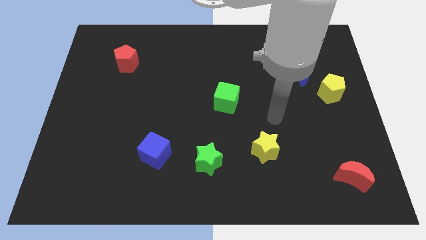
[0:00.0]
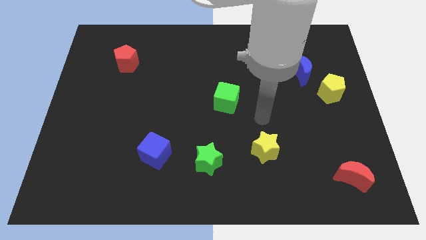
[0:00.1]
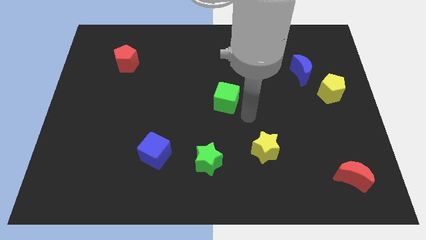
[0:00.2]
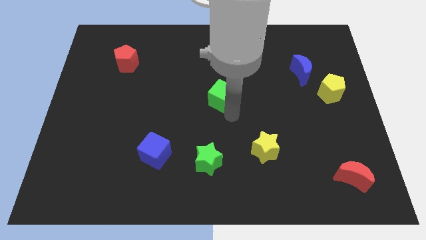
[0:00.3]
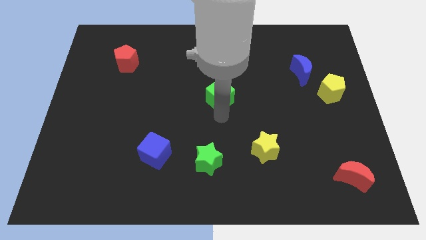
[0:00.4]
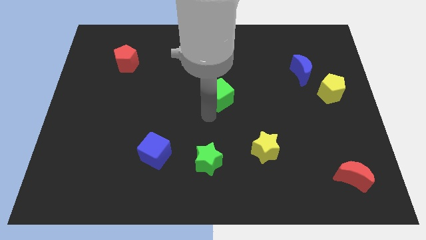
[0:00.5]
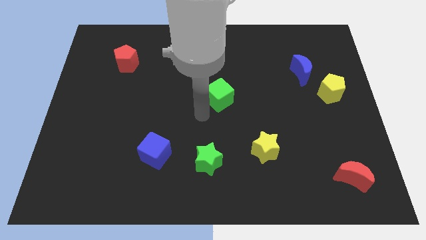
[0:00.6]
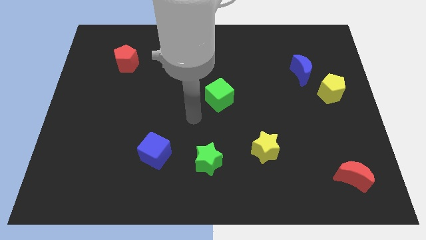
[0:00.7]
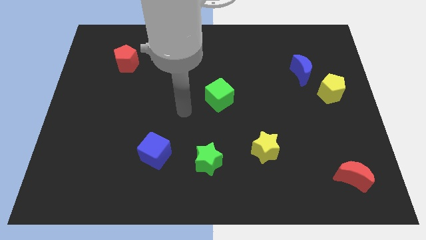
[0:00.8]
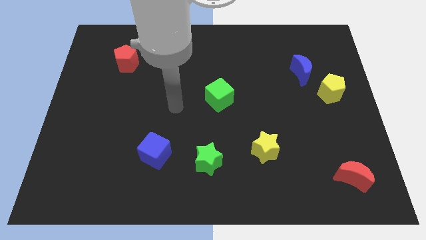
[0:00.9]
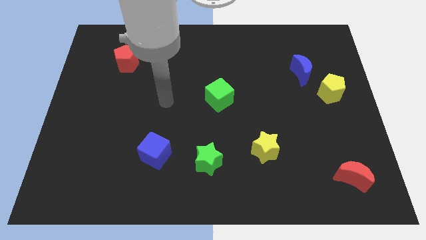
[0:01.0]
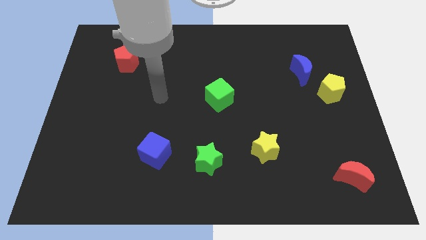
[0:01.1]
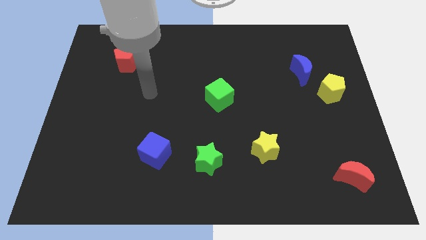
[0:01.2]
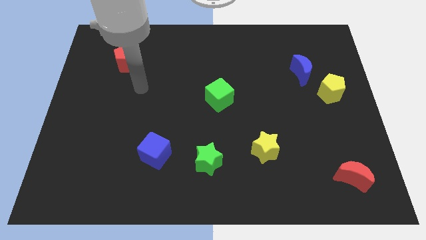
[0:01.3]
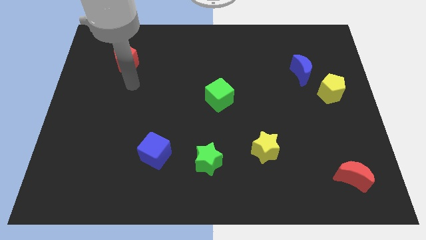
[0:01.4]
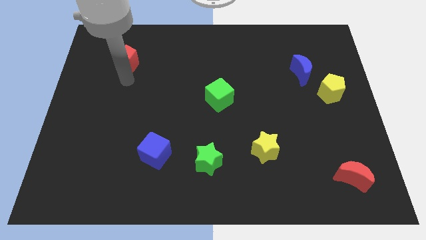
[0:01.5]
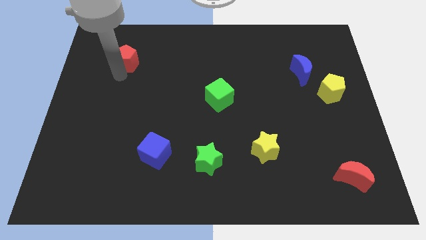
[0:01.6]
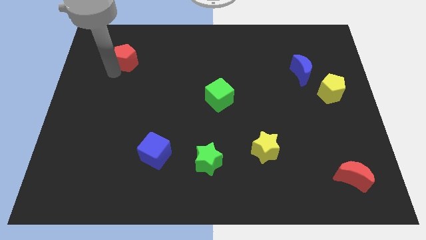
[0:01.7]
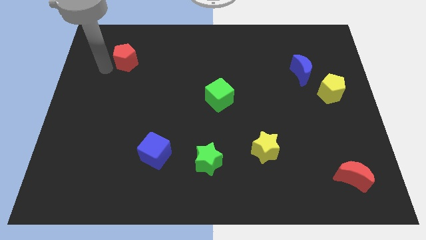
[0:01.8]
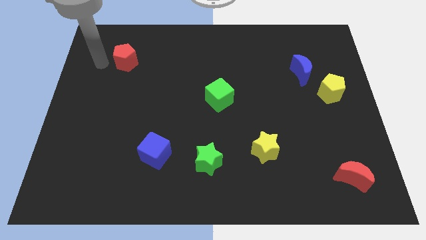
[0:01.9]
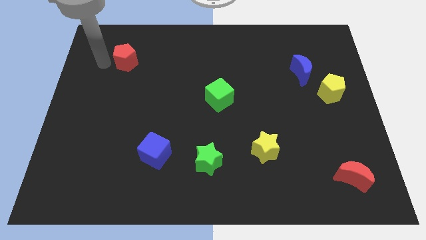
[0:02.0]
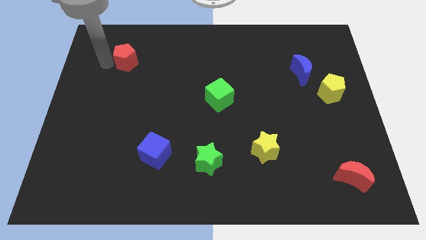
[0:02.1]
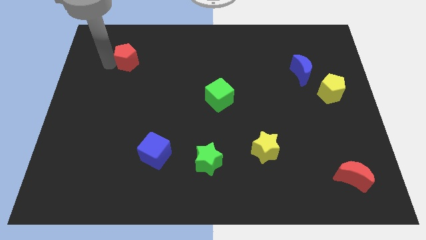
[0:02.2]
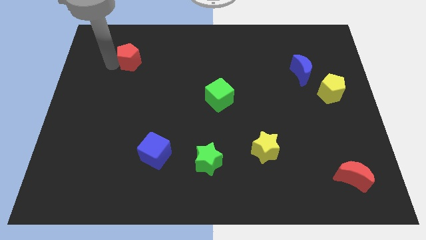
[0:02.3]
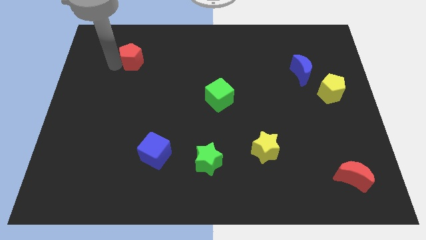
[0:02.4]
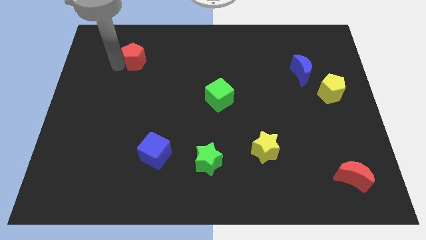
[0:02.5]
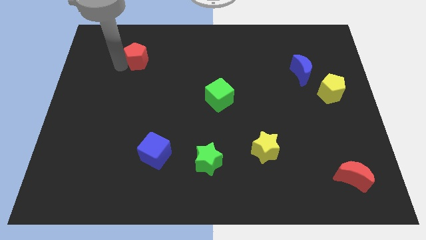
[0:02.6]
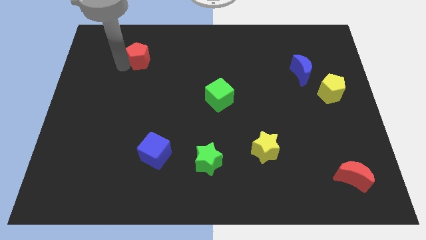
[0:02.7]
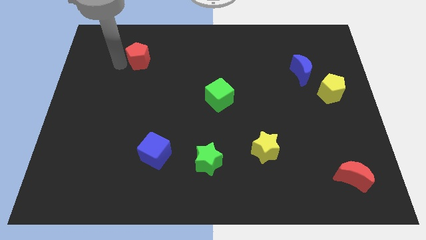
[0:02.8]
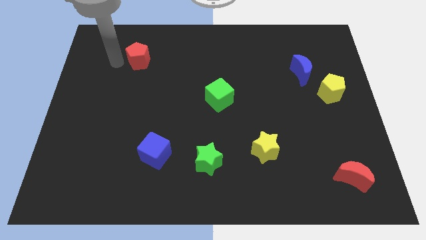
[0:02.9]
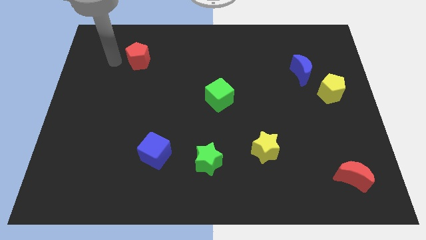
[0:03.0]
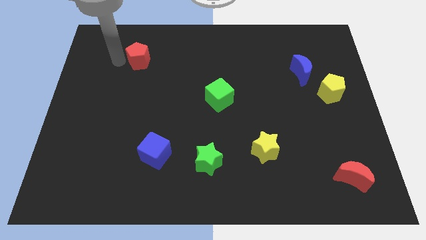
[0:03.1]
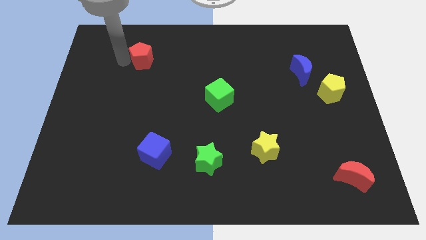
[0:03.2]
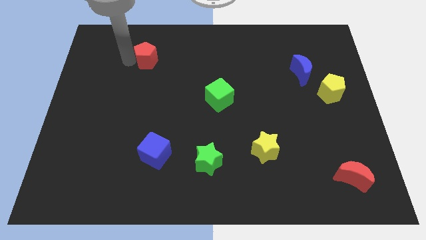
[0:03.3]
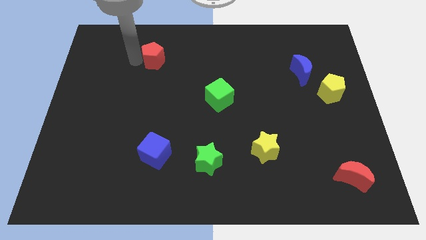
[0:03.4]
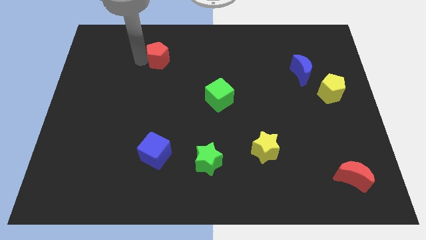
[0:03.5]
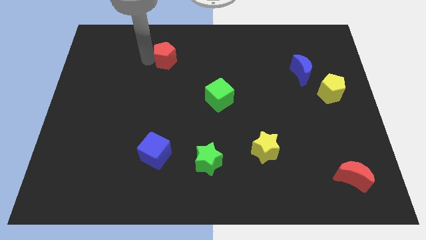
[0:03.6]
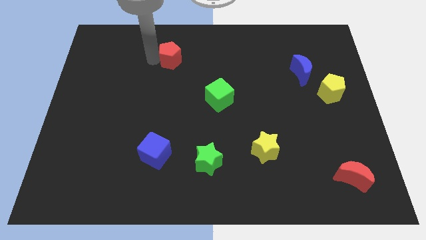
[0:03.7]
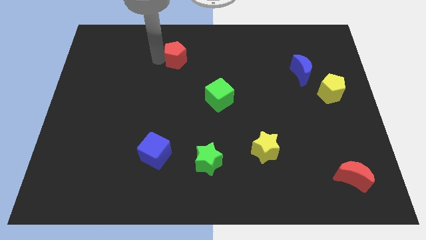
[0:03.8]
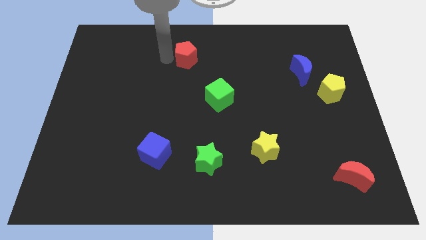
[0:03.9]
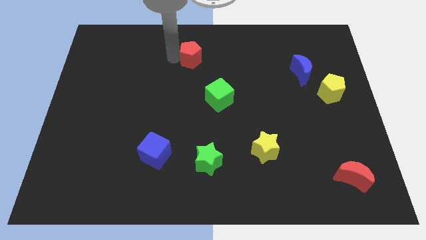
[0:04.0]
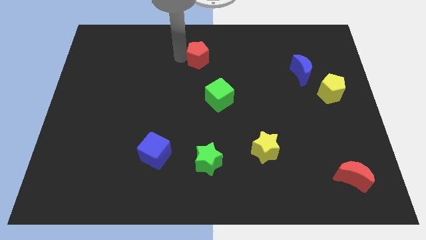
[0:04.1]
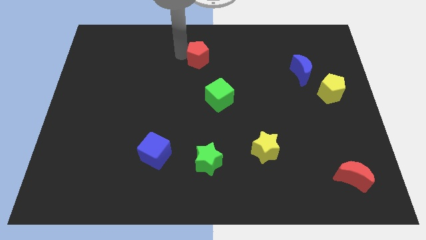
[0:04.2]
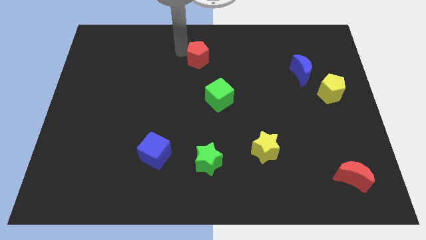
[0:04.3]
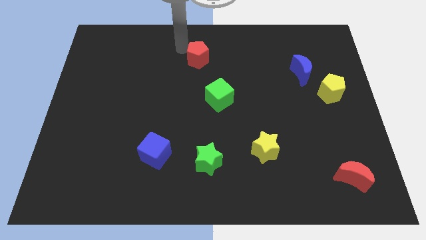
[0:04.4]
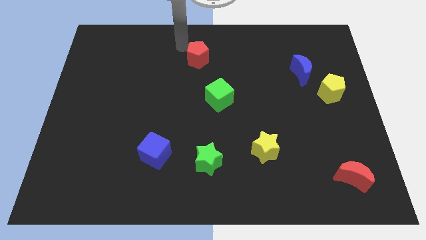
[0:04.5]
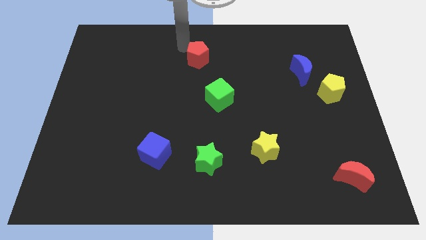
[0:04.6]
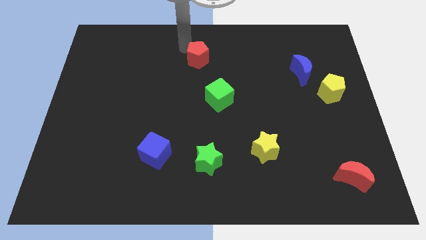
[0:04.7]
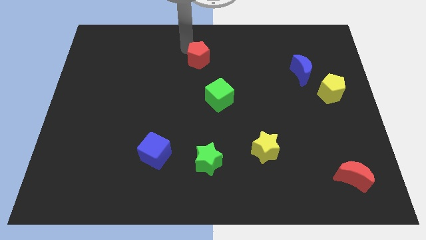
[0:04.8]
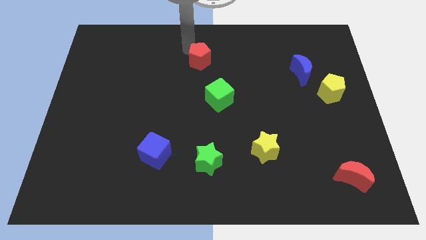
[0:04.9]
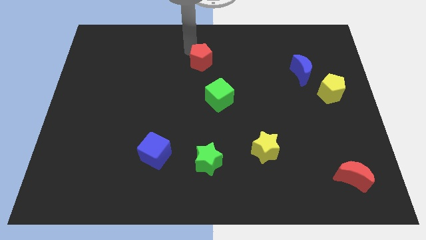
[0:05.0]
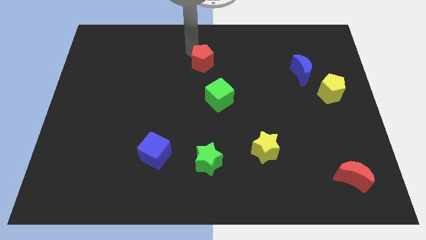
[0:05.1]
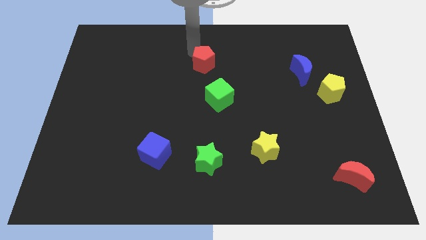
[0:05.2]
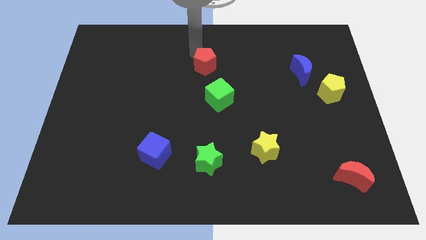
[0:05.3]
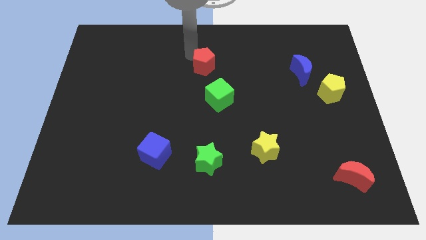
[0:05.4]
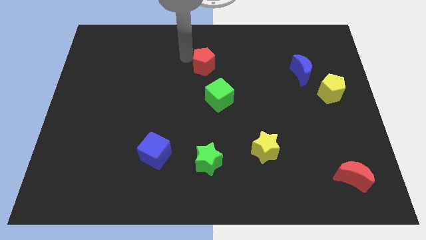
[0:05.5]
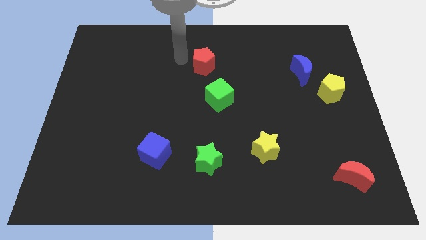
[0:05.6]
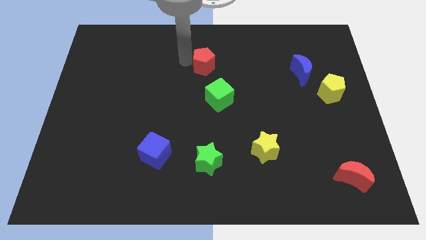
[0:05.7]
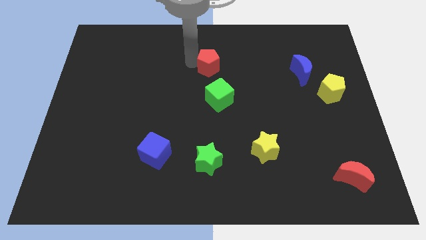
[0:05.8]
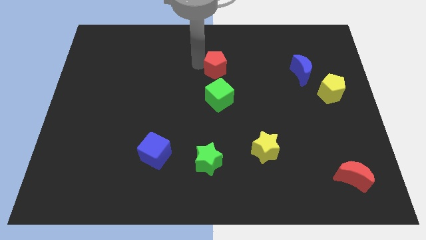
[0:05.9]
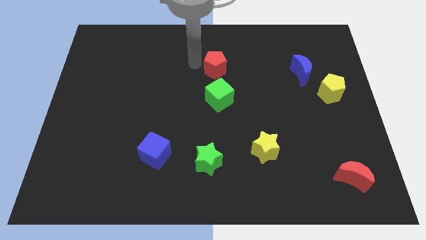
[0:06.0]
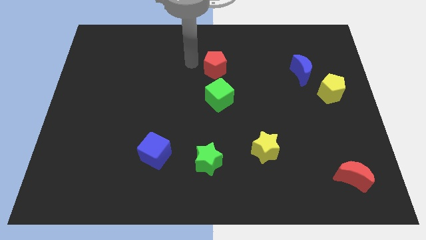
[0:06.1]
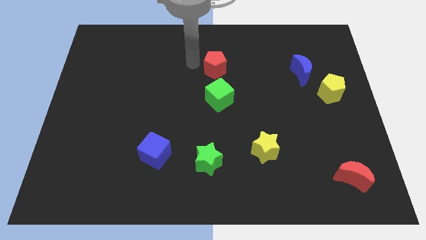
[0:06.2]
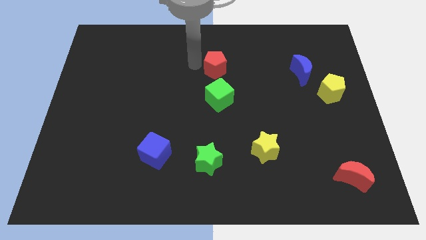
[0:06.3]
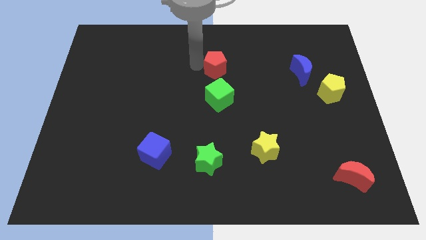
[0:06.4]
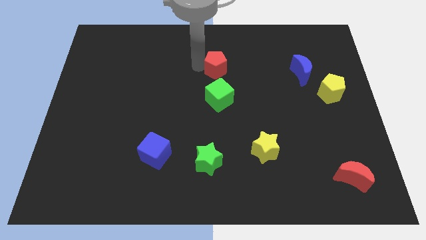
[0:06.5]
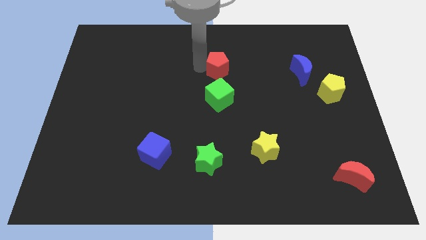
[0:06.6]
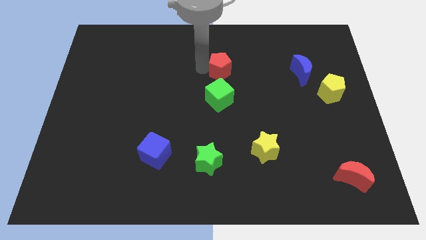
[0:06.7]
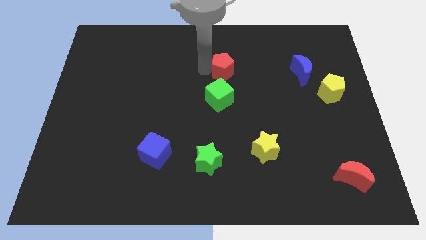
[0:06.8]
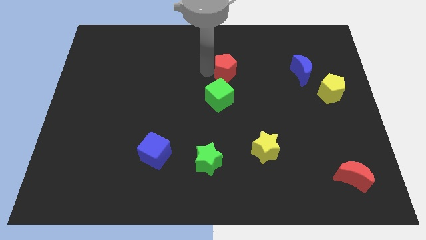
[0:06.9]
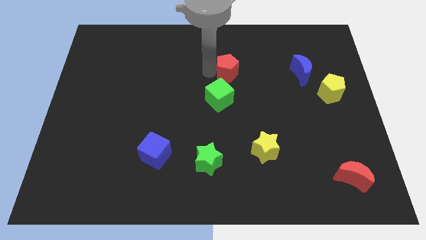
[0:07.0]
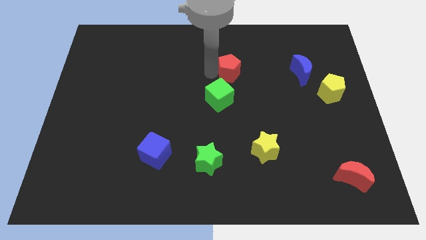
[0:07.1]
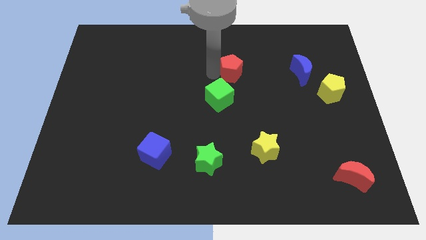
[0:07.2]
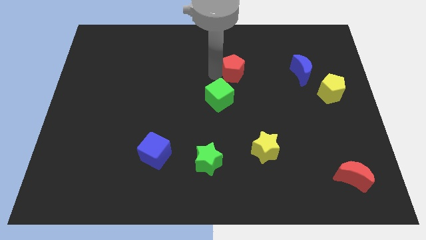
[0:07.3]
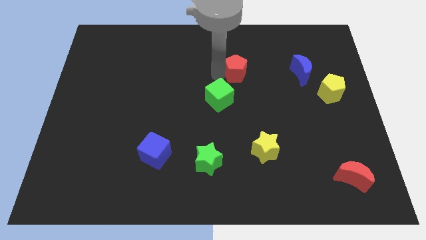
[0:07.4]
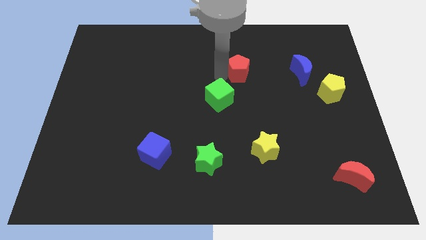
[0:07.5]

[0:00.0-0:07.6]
push the red pentagon just left of the blue moon

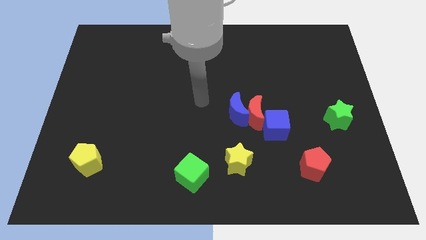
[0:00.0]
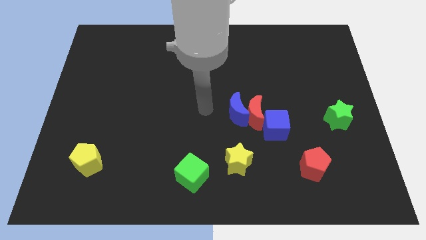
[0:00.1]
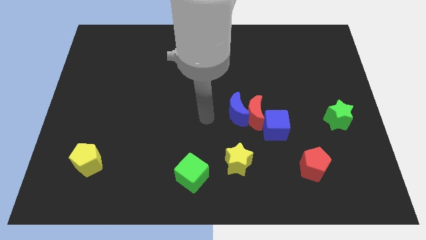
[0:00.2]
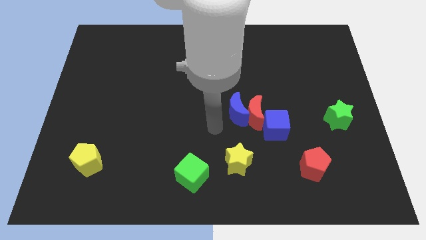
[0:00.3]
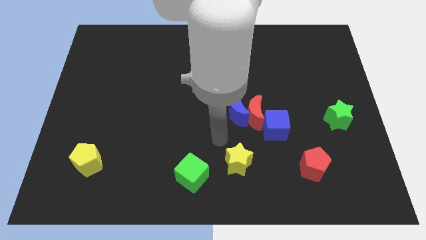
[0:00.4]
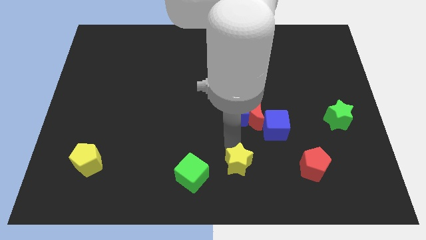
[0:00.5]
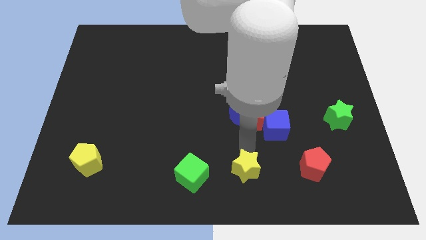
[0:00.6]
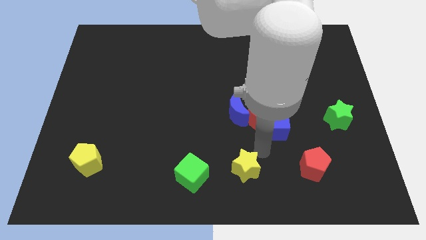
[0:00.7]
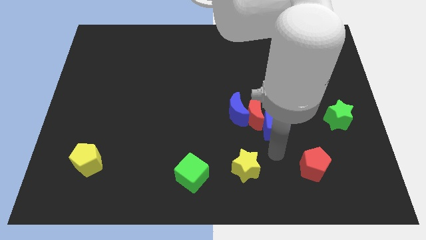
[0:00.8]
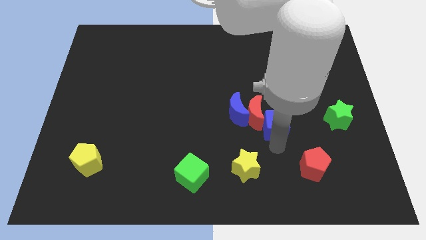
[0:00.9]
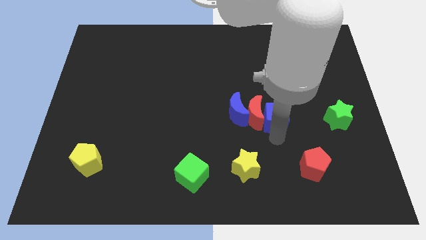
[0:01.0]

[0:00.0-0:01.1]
put the blue cube to the top right of the red moon
